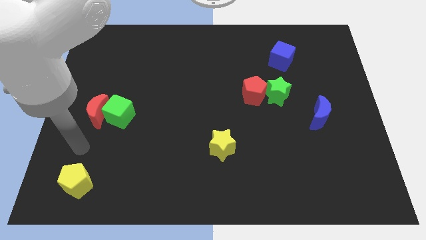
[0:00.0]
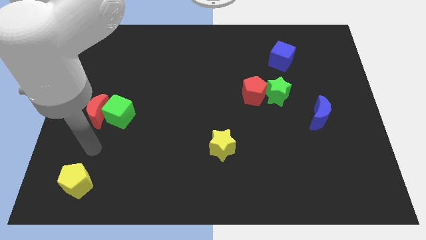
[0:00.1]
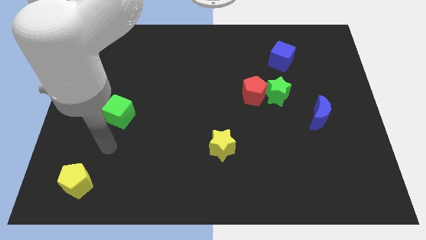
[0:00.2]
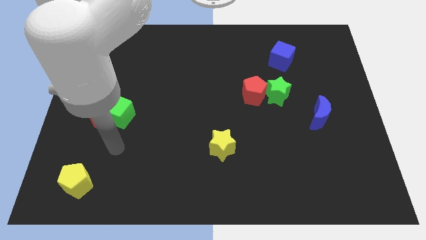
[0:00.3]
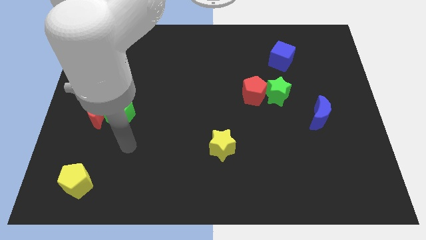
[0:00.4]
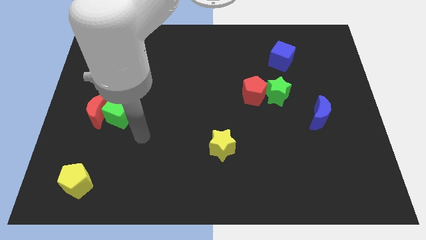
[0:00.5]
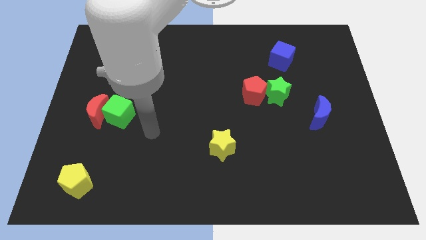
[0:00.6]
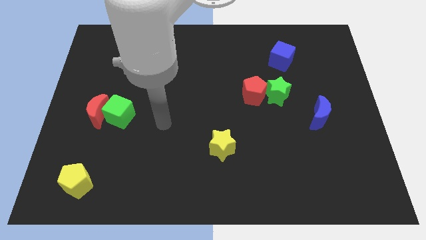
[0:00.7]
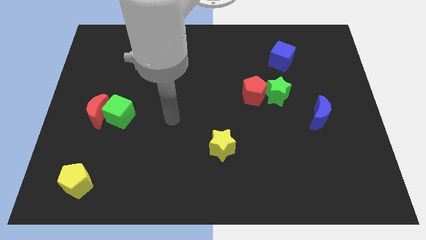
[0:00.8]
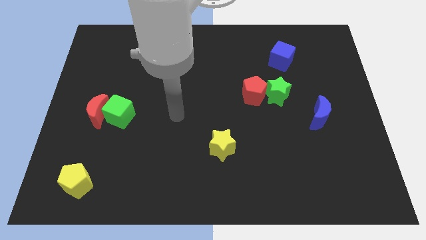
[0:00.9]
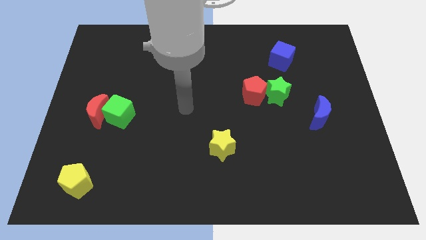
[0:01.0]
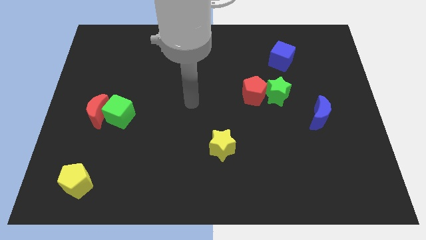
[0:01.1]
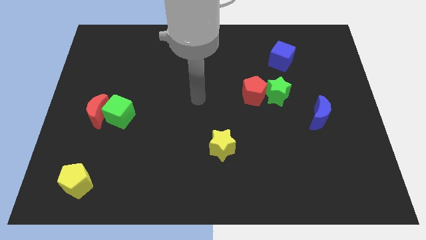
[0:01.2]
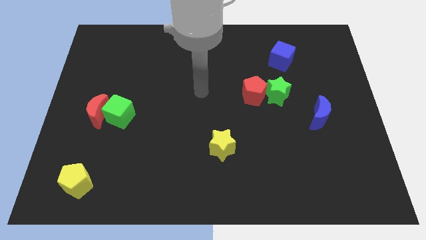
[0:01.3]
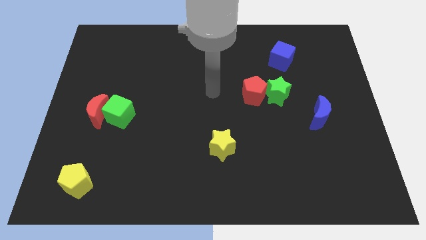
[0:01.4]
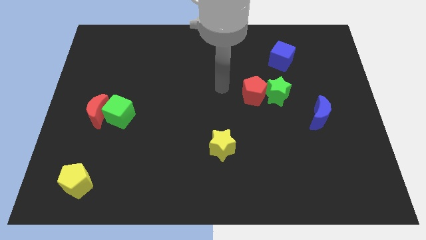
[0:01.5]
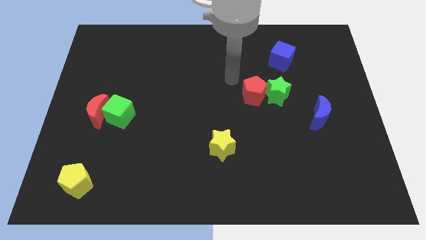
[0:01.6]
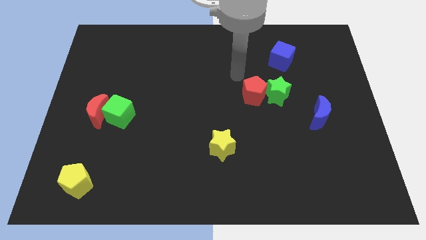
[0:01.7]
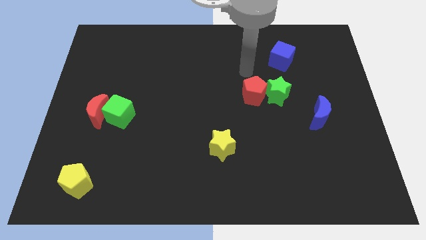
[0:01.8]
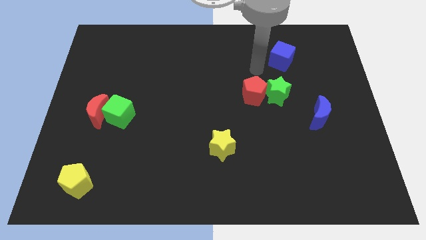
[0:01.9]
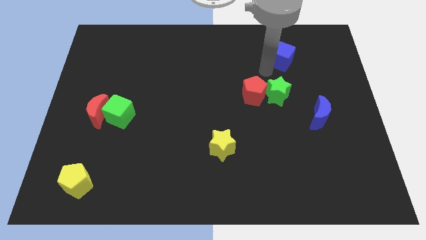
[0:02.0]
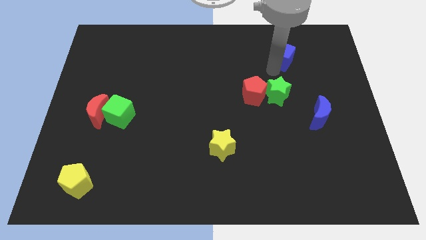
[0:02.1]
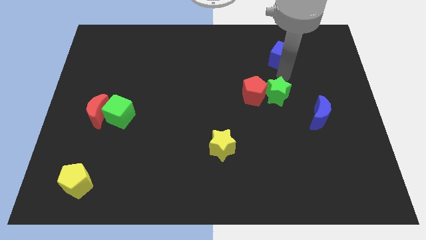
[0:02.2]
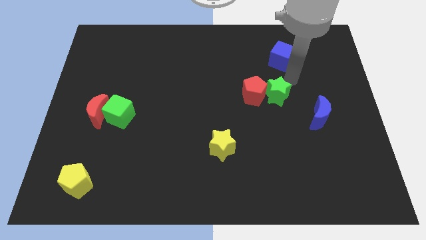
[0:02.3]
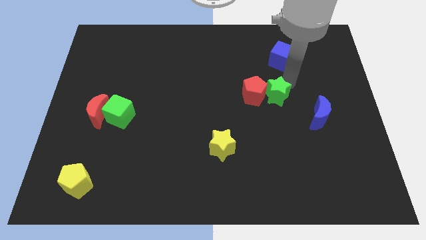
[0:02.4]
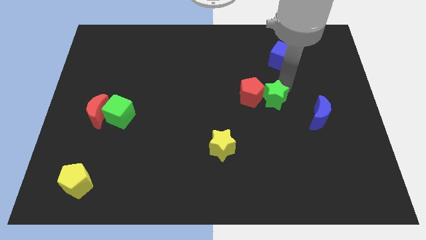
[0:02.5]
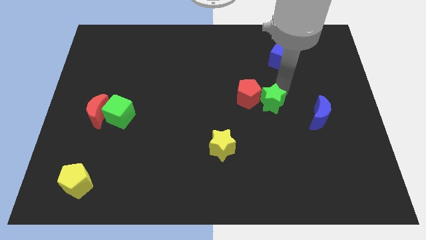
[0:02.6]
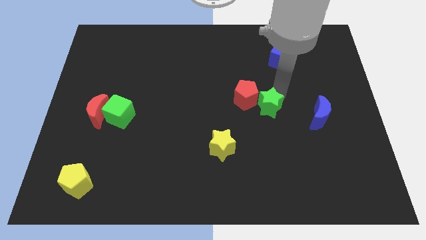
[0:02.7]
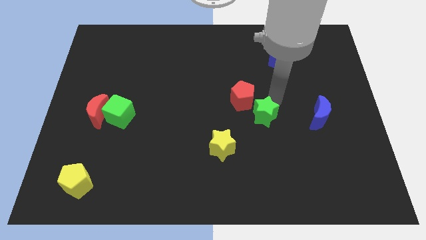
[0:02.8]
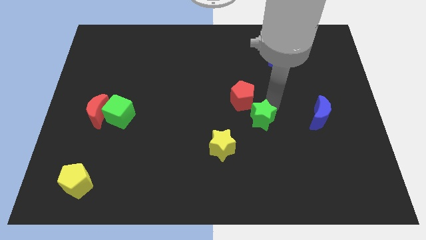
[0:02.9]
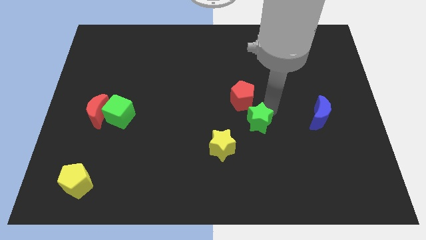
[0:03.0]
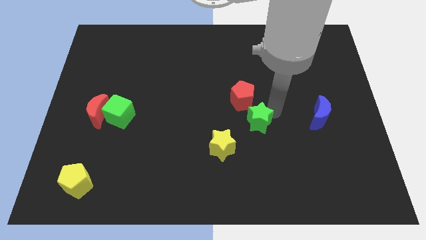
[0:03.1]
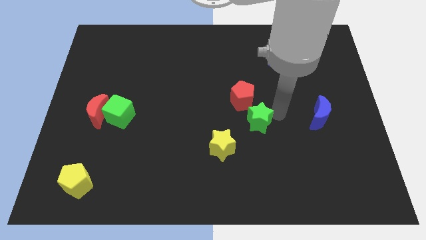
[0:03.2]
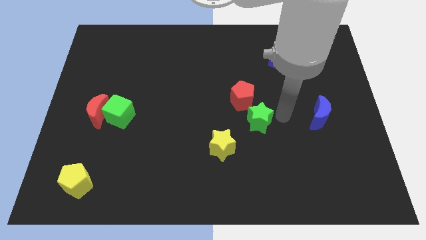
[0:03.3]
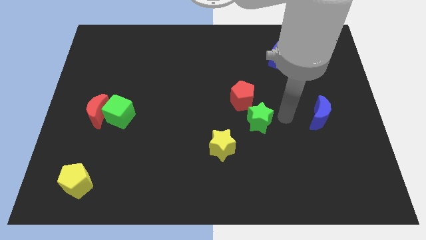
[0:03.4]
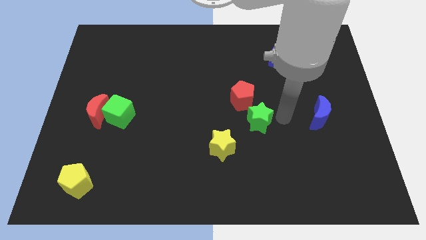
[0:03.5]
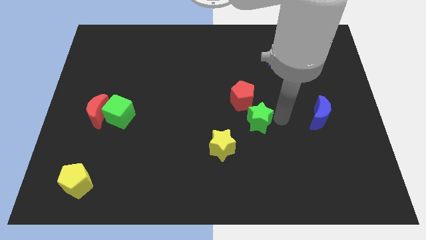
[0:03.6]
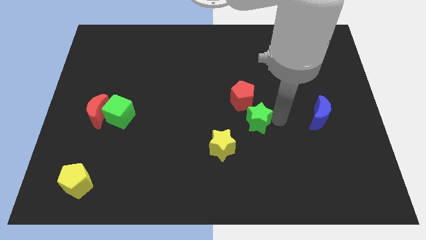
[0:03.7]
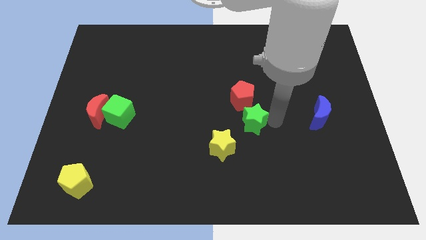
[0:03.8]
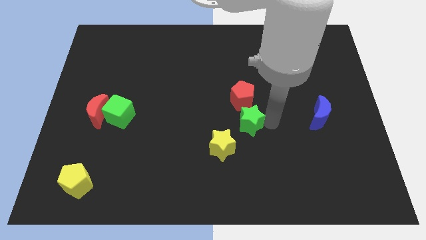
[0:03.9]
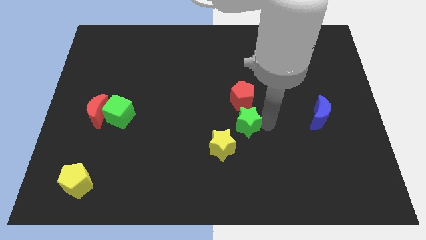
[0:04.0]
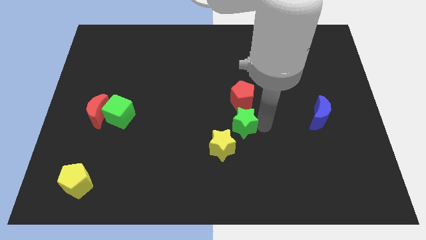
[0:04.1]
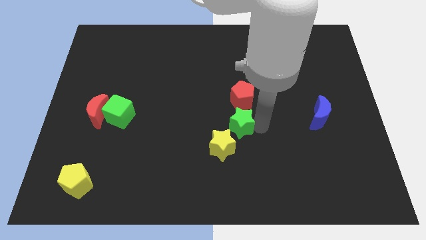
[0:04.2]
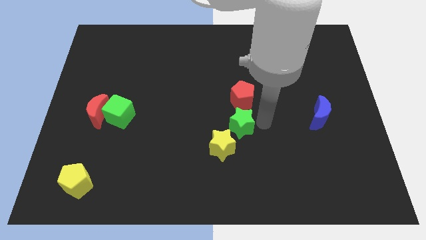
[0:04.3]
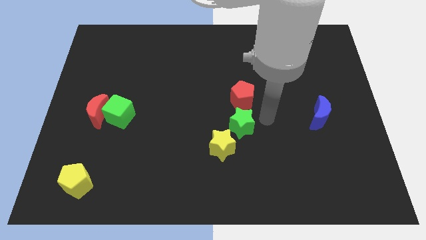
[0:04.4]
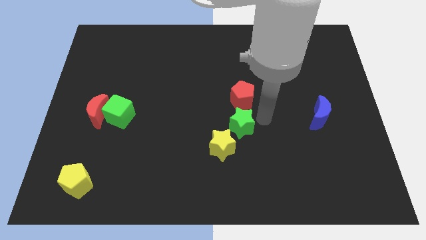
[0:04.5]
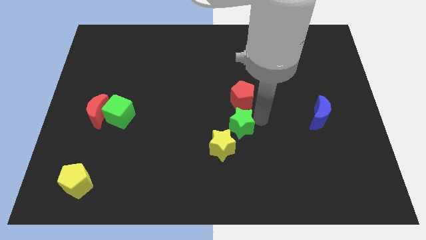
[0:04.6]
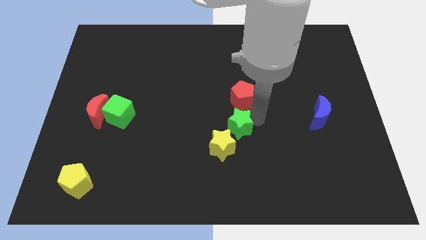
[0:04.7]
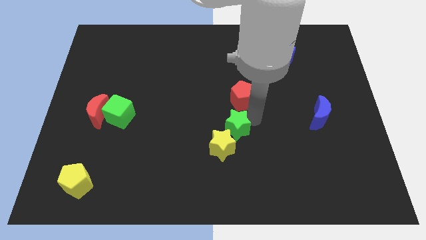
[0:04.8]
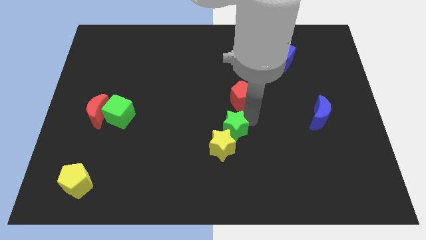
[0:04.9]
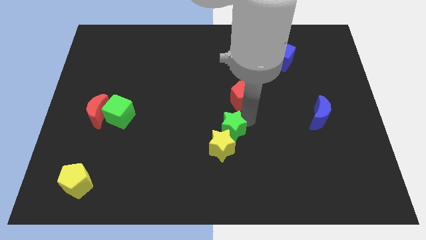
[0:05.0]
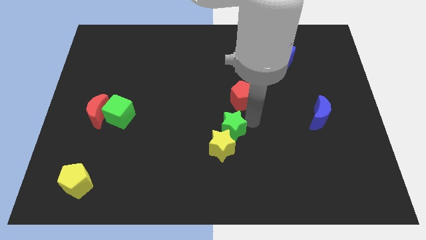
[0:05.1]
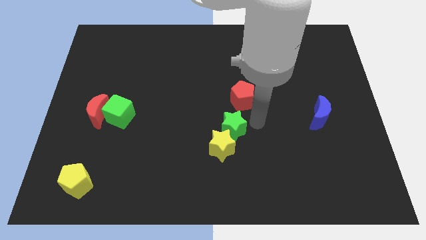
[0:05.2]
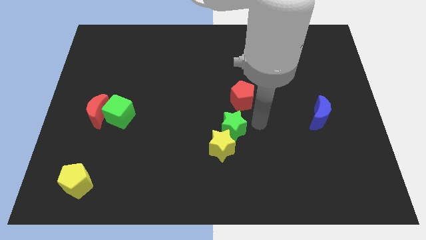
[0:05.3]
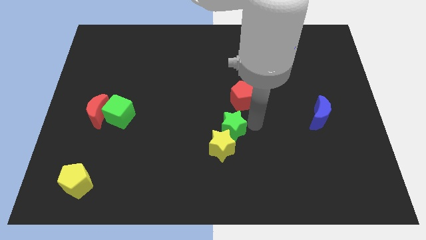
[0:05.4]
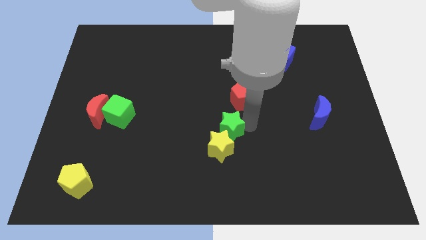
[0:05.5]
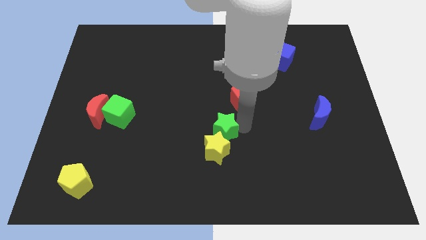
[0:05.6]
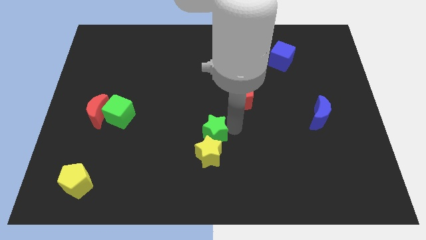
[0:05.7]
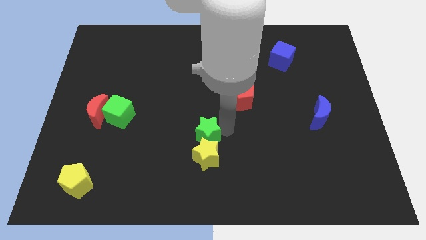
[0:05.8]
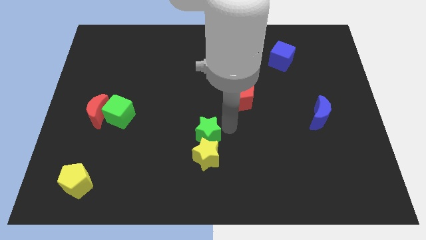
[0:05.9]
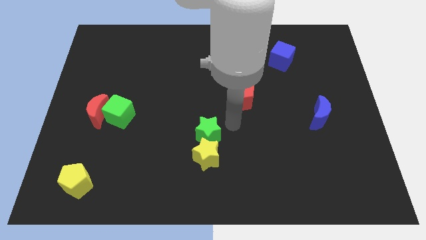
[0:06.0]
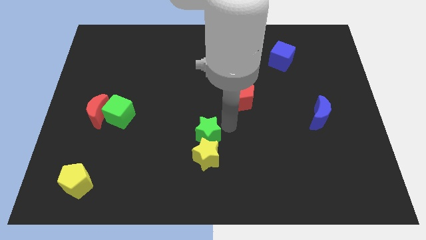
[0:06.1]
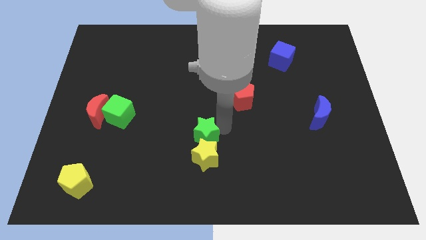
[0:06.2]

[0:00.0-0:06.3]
move the green star diagonally downwards and to the left

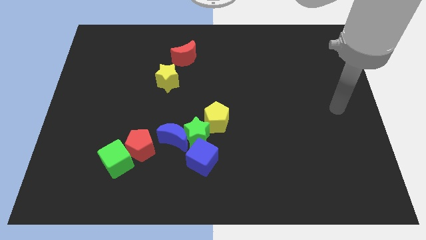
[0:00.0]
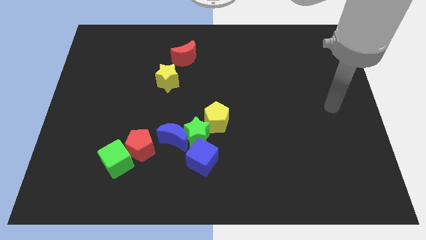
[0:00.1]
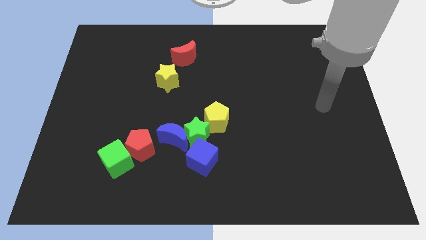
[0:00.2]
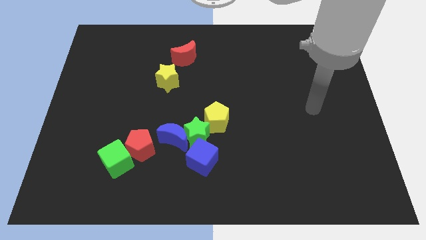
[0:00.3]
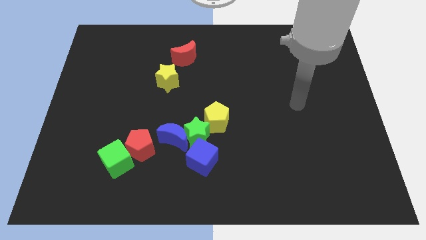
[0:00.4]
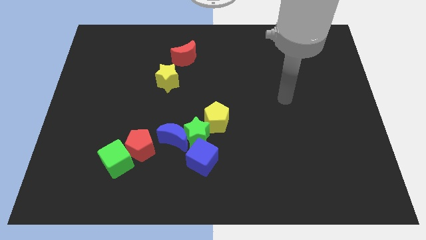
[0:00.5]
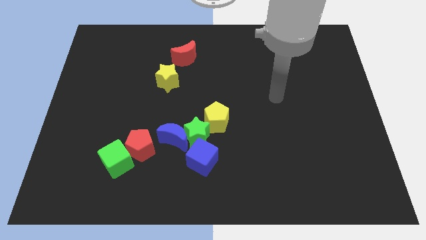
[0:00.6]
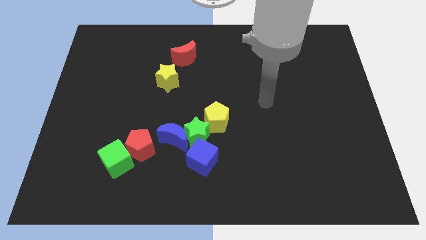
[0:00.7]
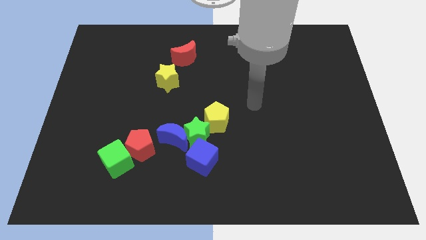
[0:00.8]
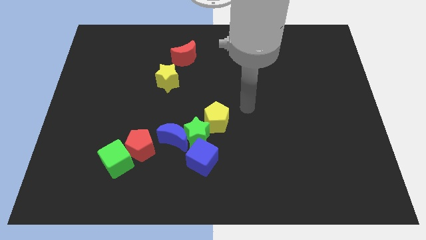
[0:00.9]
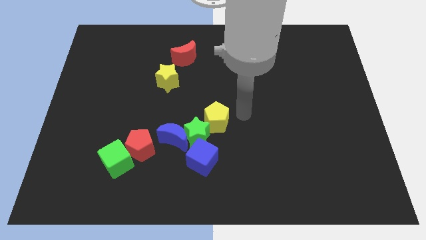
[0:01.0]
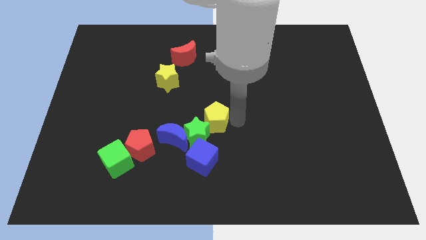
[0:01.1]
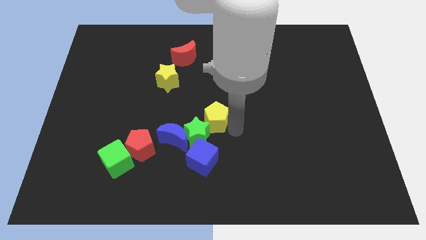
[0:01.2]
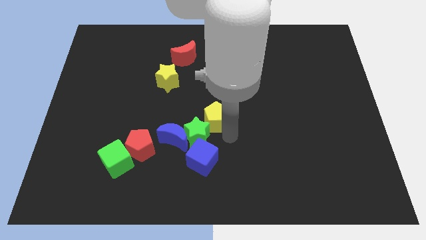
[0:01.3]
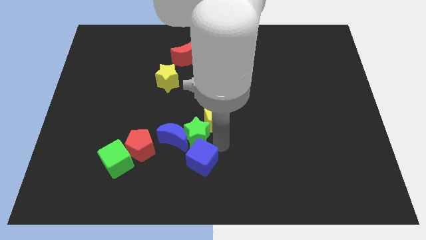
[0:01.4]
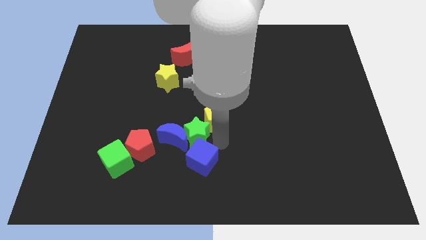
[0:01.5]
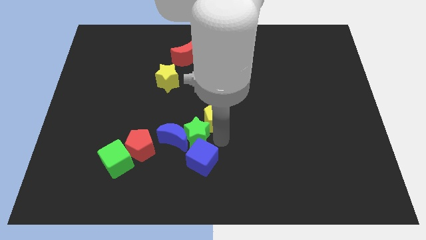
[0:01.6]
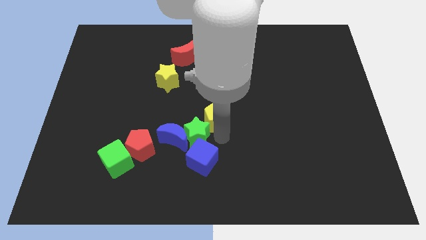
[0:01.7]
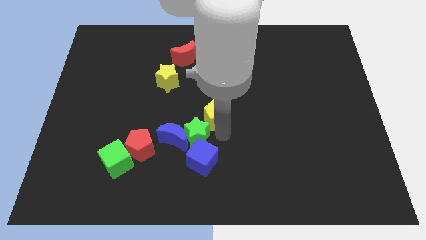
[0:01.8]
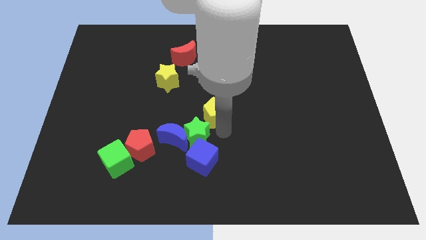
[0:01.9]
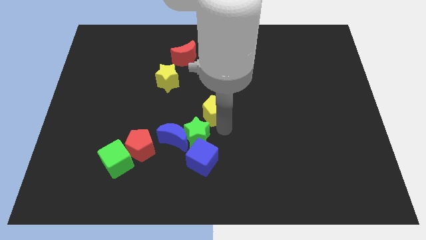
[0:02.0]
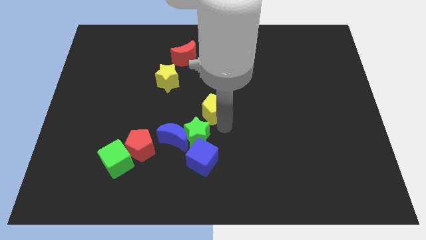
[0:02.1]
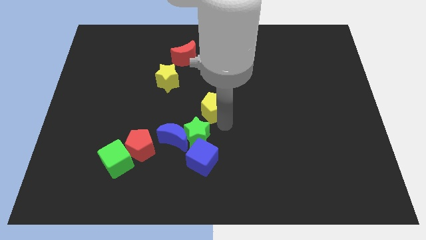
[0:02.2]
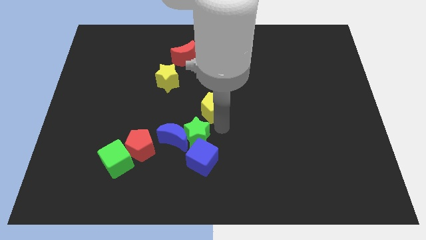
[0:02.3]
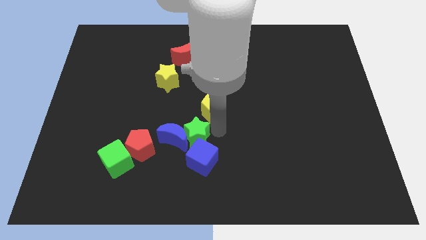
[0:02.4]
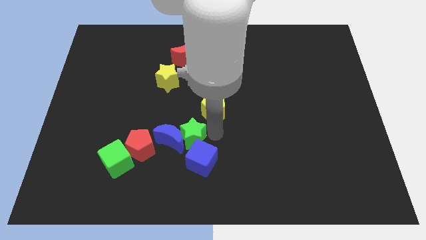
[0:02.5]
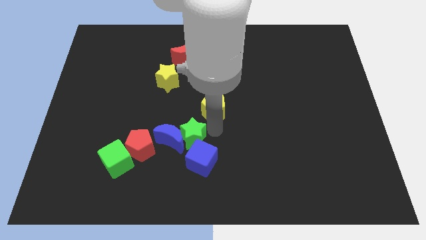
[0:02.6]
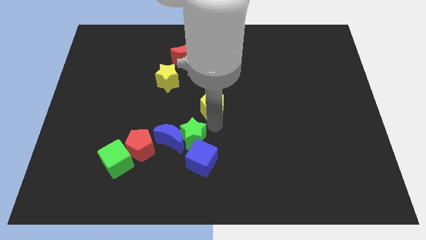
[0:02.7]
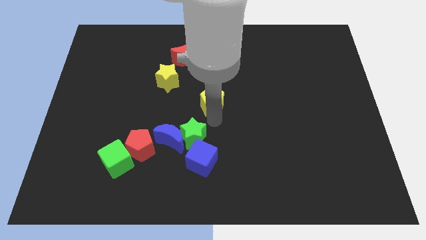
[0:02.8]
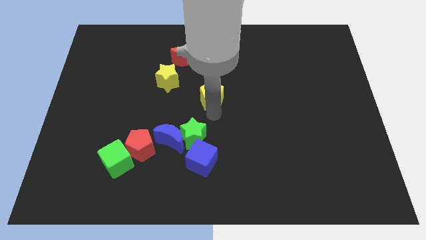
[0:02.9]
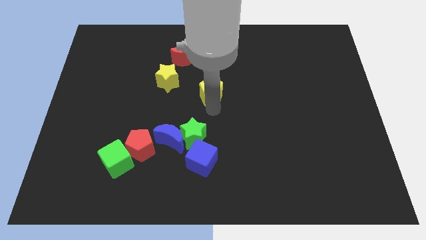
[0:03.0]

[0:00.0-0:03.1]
slightly push the yellow pentagon upwards
